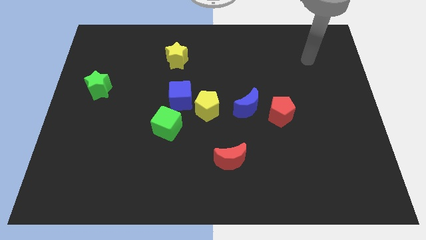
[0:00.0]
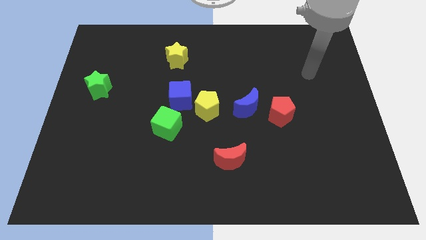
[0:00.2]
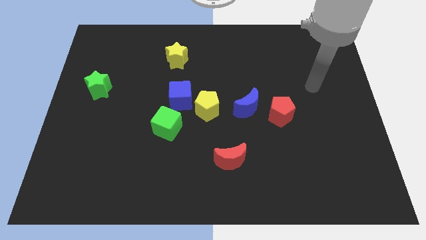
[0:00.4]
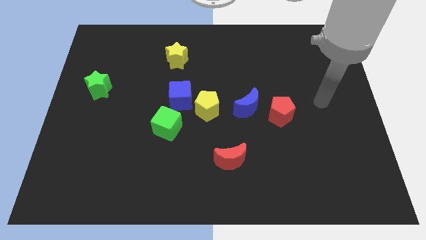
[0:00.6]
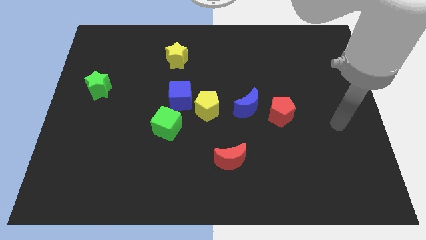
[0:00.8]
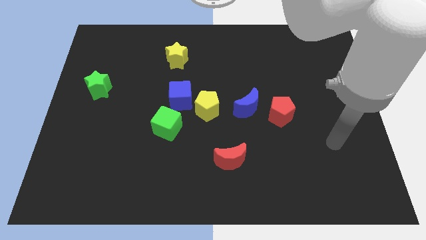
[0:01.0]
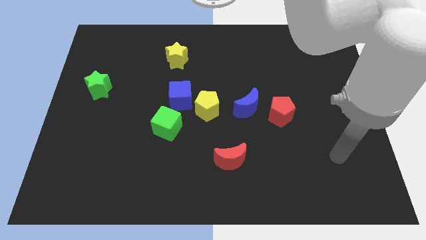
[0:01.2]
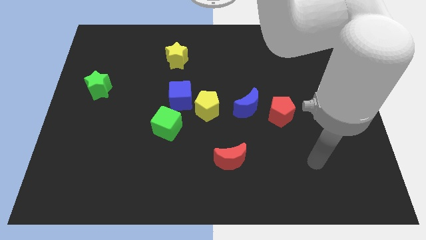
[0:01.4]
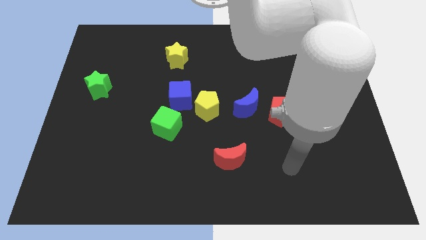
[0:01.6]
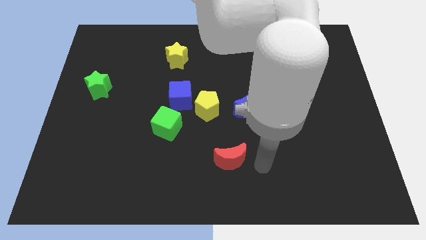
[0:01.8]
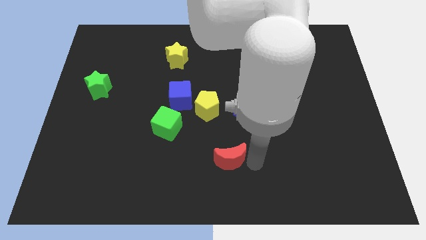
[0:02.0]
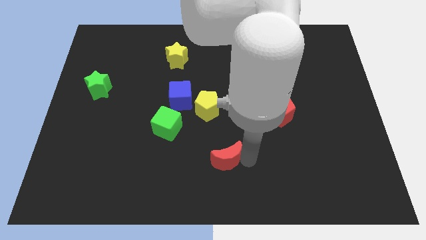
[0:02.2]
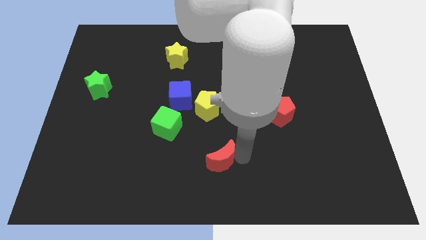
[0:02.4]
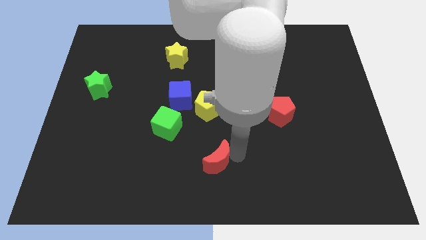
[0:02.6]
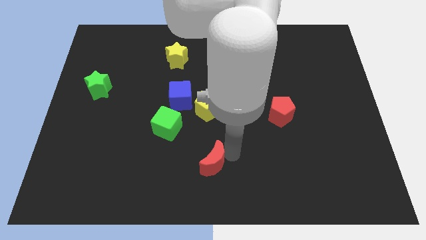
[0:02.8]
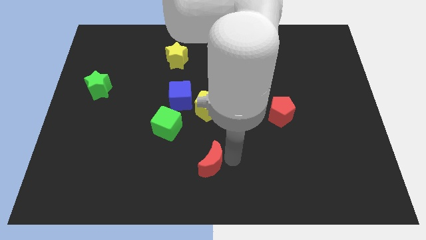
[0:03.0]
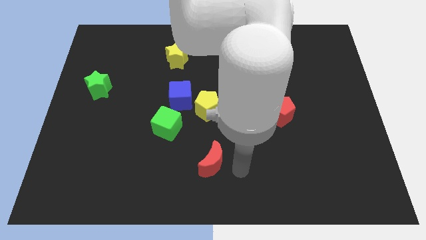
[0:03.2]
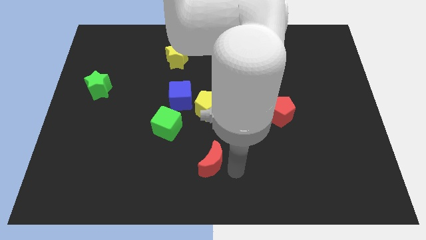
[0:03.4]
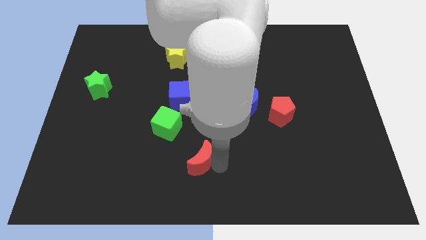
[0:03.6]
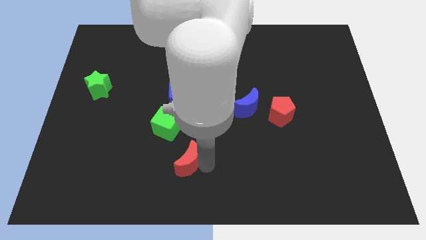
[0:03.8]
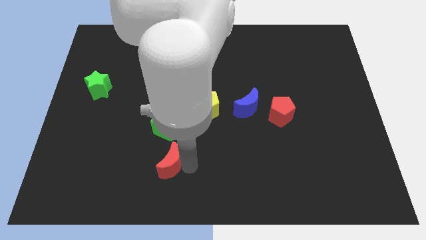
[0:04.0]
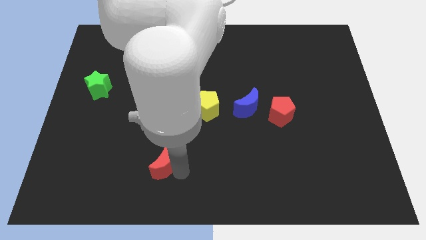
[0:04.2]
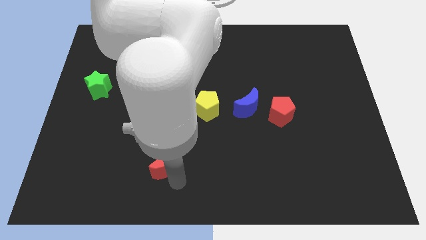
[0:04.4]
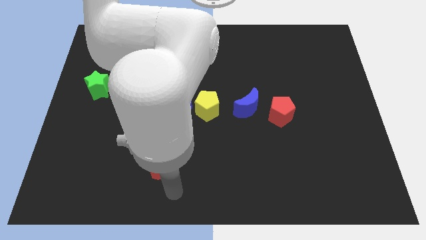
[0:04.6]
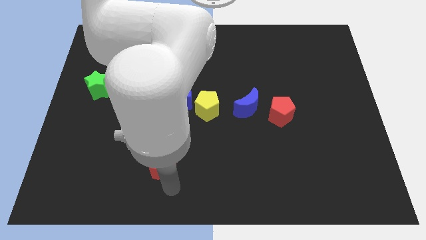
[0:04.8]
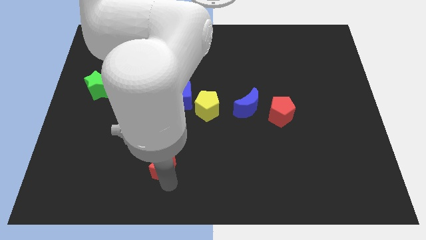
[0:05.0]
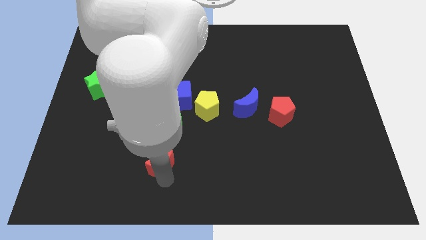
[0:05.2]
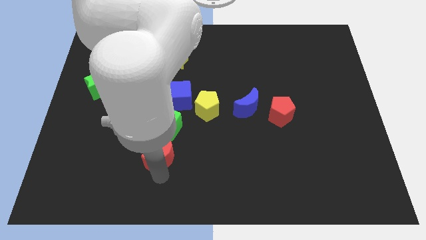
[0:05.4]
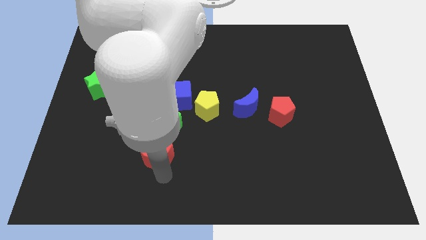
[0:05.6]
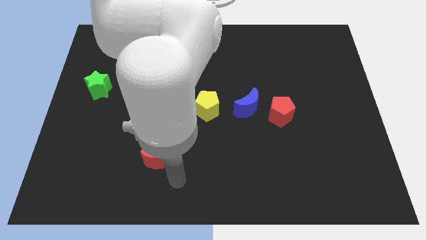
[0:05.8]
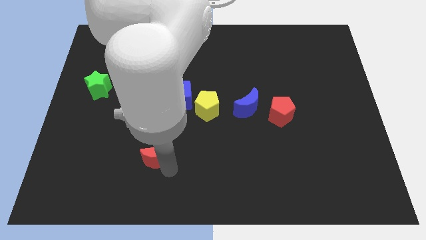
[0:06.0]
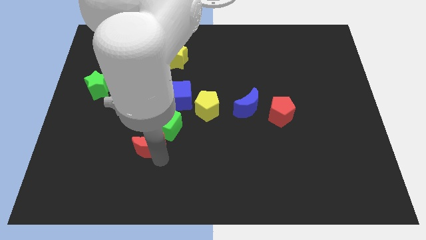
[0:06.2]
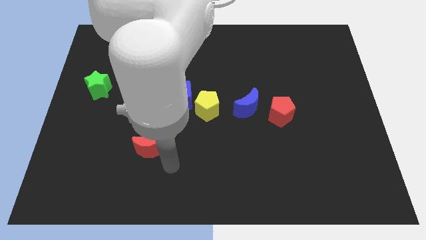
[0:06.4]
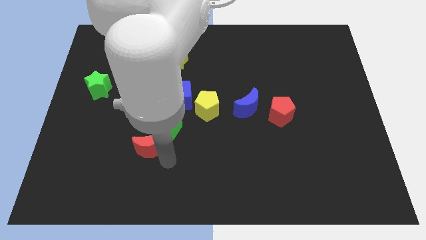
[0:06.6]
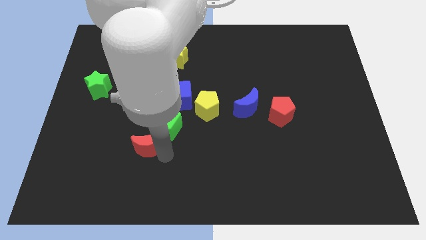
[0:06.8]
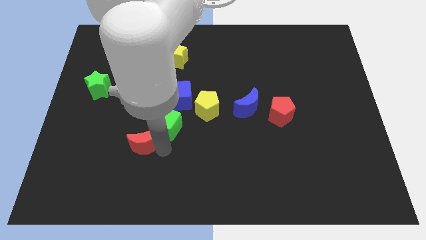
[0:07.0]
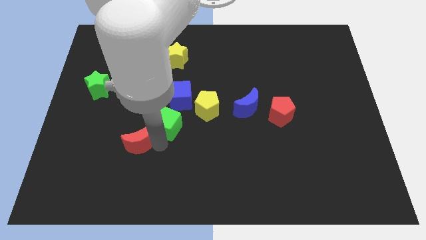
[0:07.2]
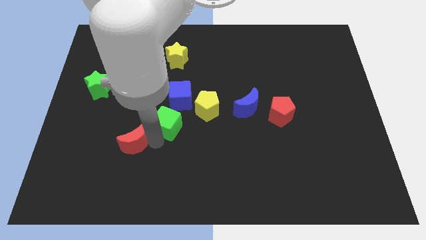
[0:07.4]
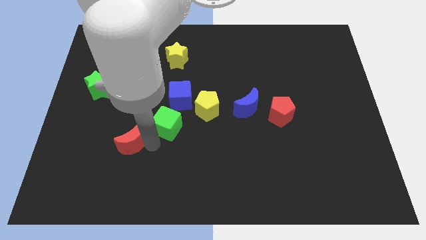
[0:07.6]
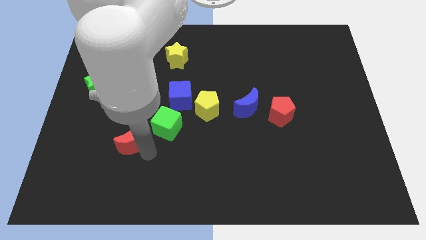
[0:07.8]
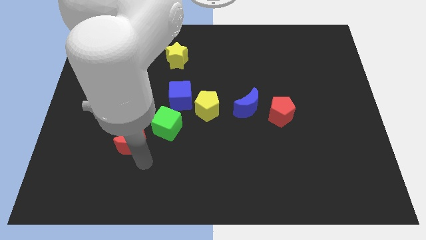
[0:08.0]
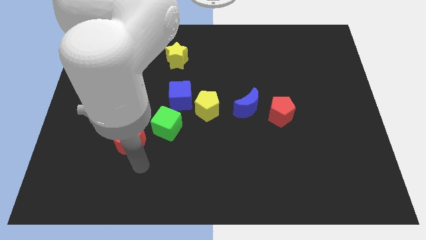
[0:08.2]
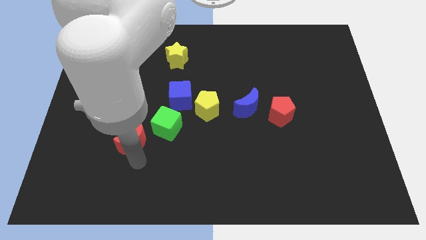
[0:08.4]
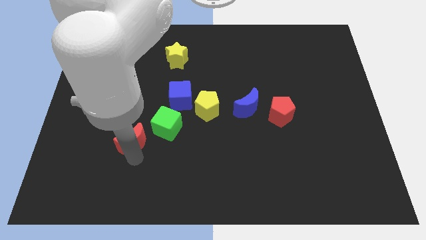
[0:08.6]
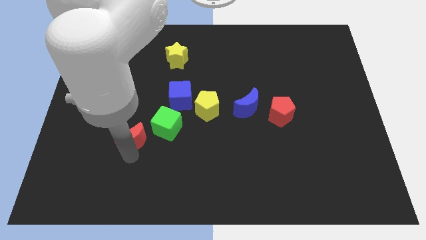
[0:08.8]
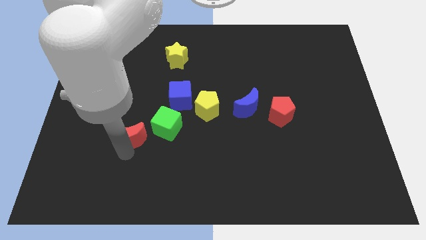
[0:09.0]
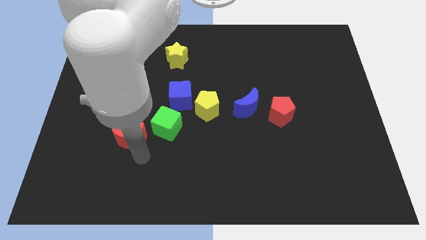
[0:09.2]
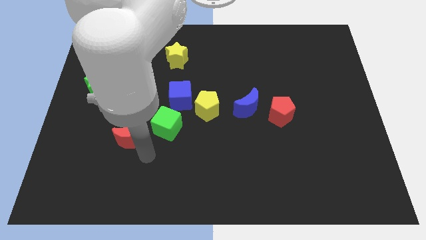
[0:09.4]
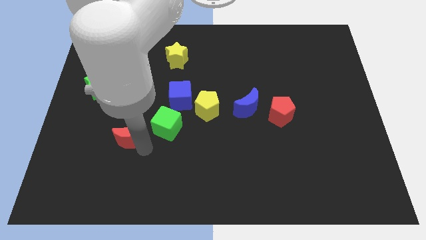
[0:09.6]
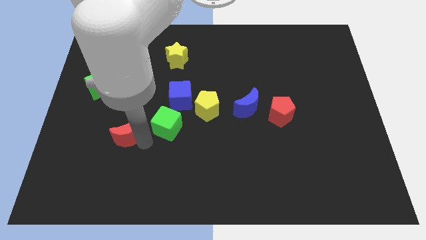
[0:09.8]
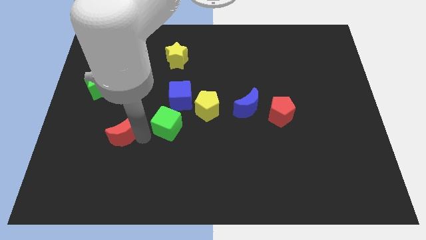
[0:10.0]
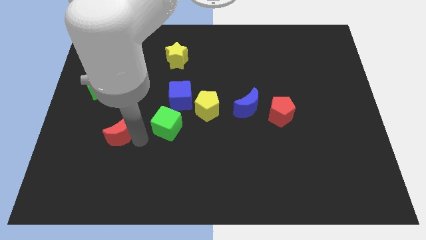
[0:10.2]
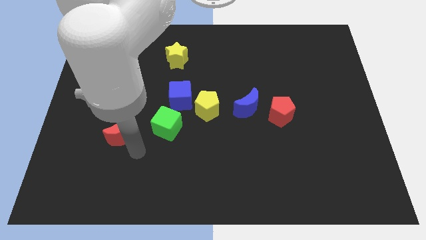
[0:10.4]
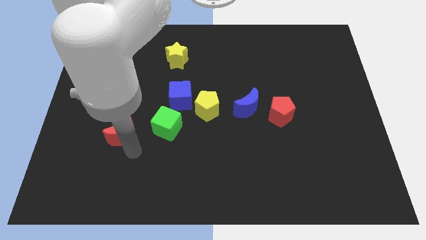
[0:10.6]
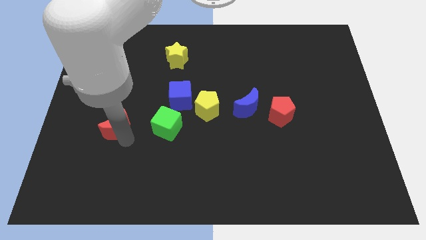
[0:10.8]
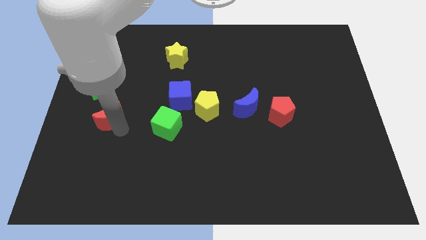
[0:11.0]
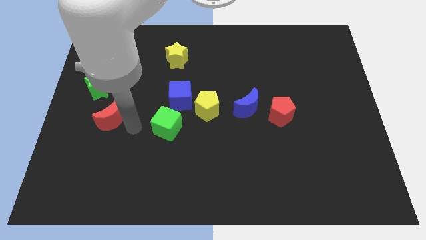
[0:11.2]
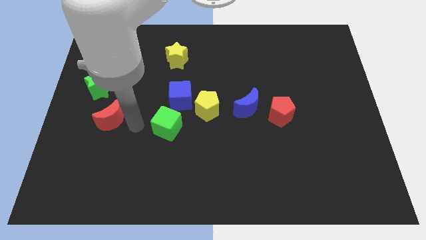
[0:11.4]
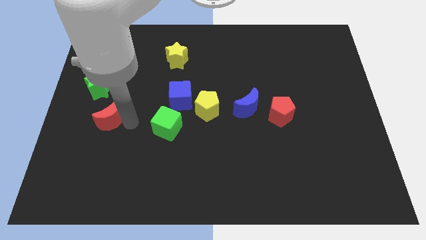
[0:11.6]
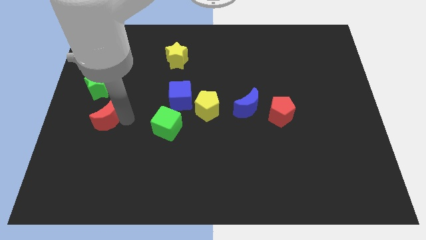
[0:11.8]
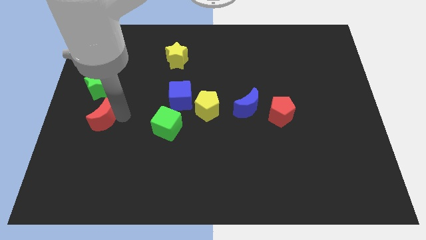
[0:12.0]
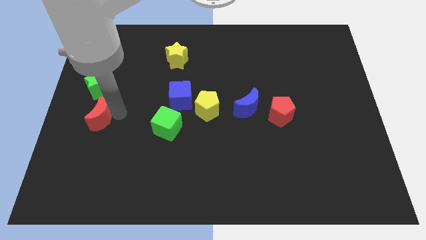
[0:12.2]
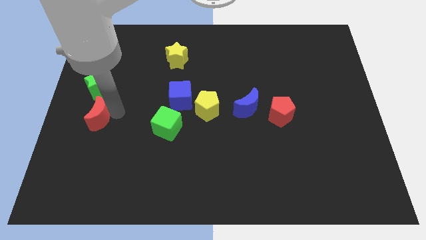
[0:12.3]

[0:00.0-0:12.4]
push the red moon to the center left
